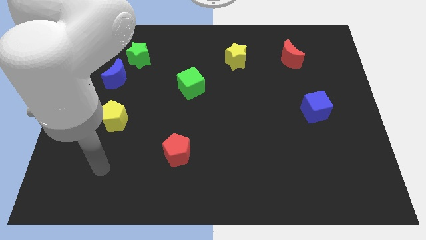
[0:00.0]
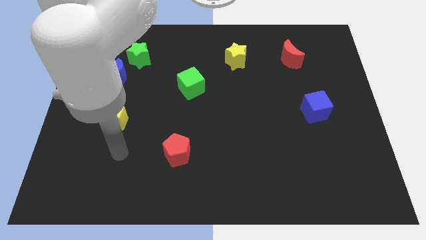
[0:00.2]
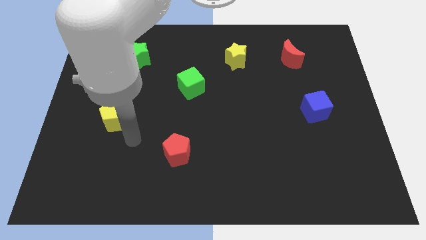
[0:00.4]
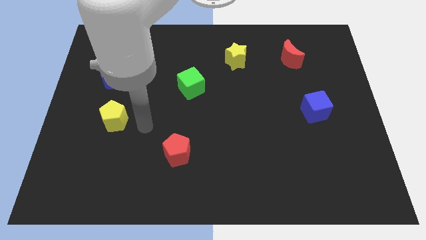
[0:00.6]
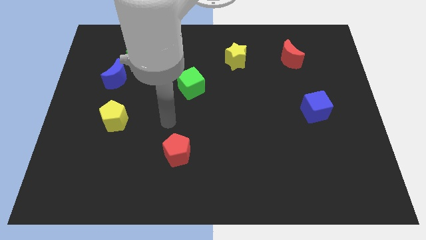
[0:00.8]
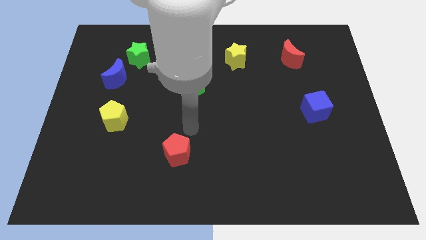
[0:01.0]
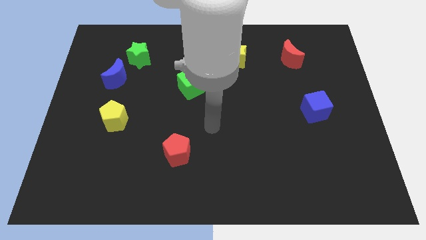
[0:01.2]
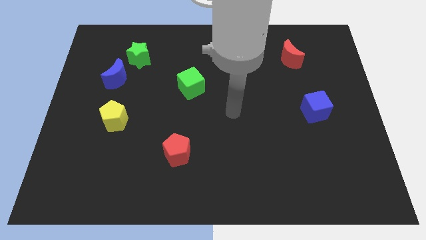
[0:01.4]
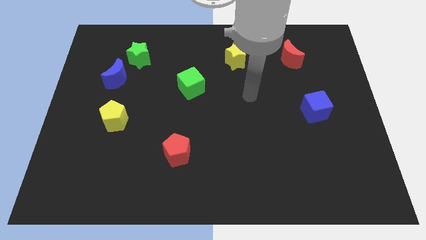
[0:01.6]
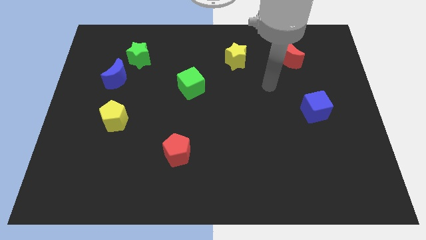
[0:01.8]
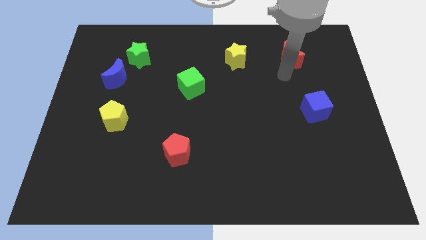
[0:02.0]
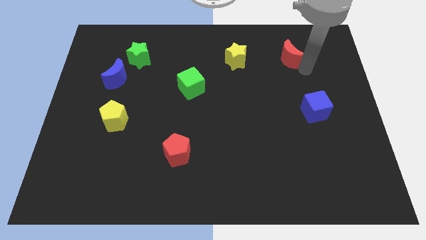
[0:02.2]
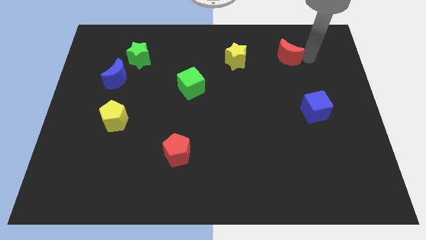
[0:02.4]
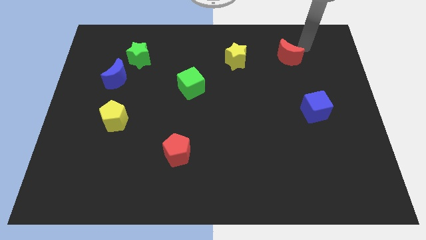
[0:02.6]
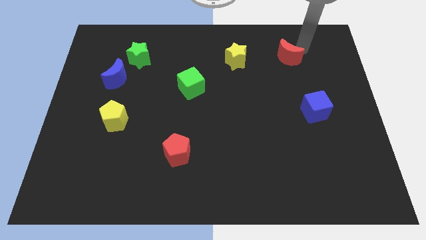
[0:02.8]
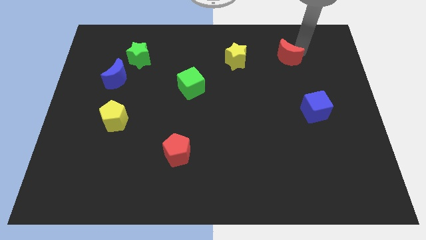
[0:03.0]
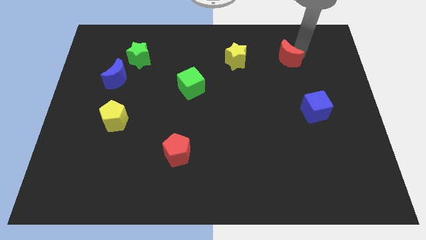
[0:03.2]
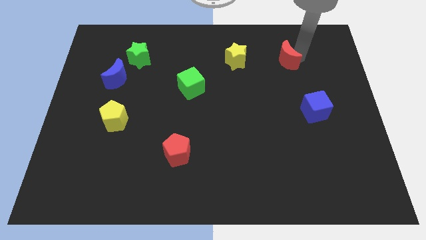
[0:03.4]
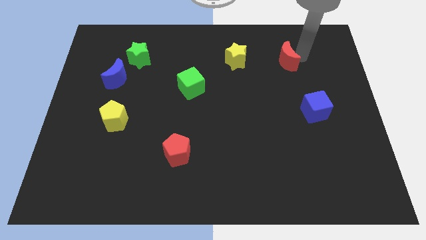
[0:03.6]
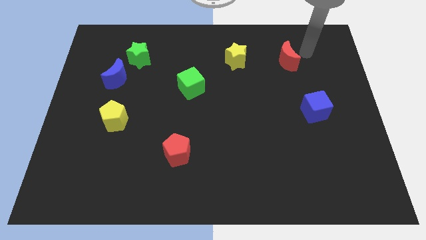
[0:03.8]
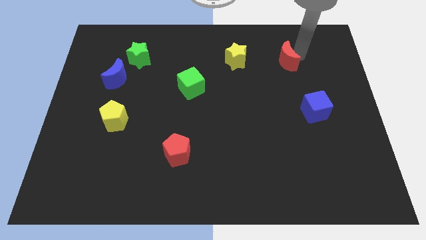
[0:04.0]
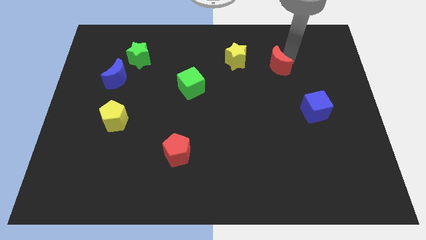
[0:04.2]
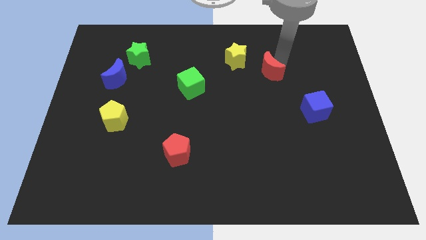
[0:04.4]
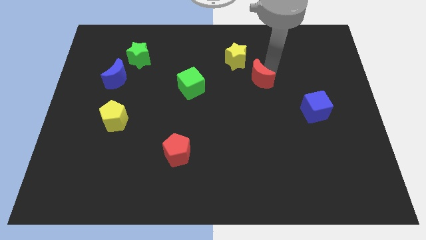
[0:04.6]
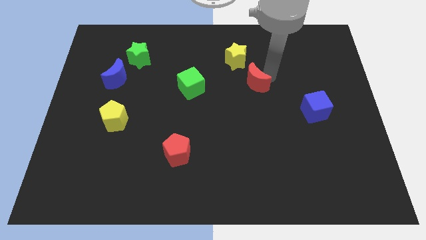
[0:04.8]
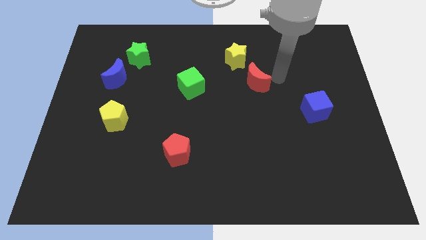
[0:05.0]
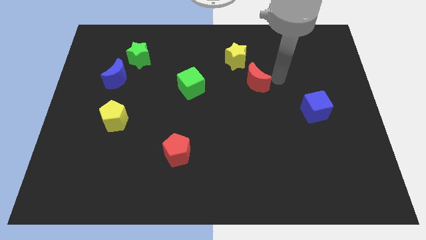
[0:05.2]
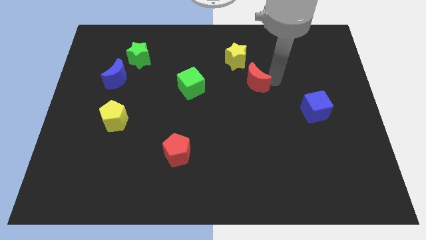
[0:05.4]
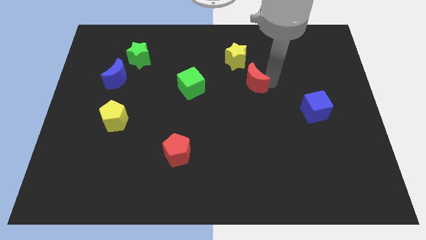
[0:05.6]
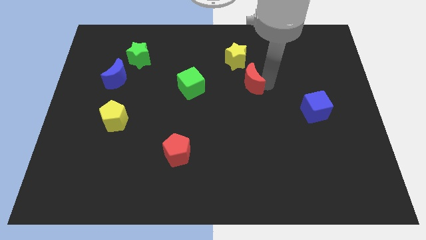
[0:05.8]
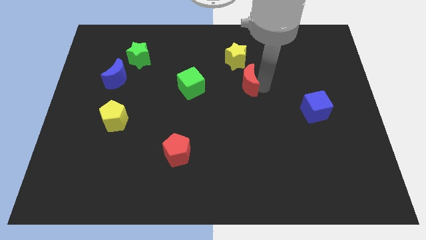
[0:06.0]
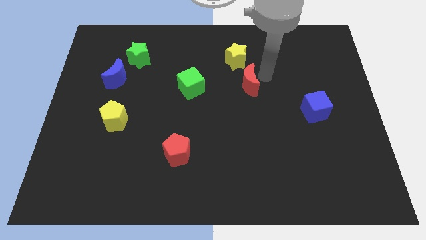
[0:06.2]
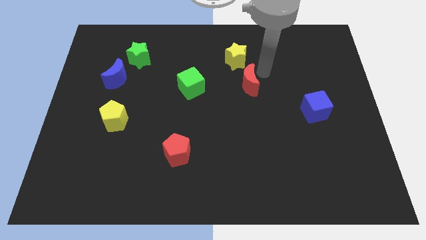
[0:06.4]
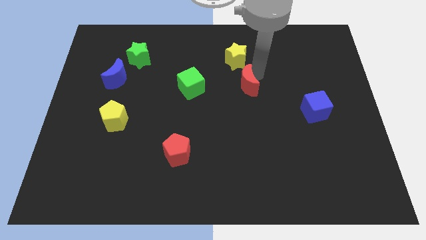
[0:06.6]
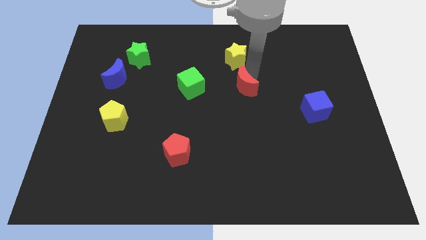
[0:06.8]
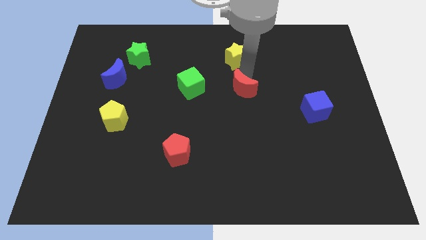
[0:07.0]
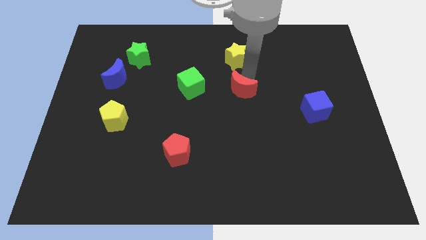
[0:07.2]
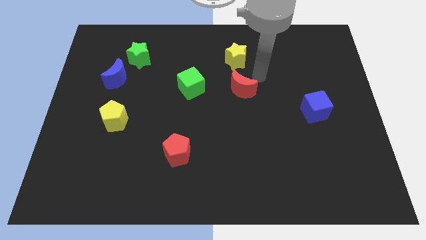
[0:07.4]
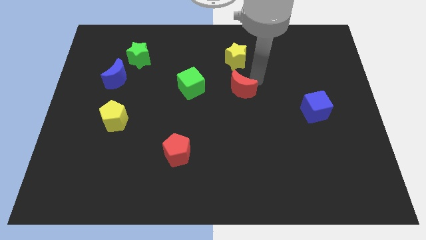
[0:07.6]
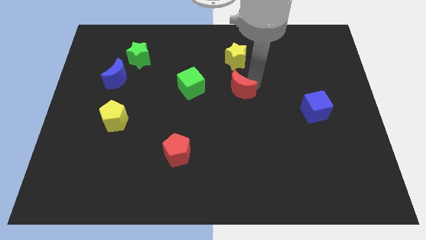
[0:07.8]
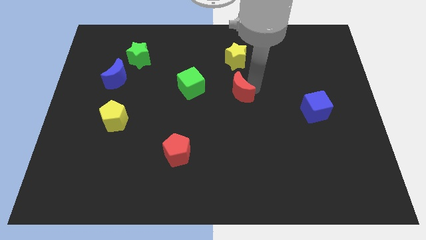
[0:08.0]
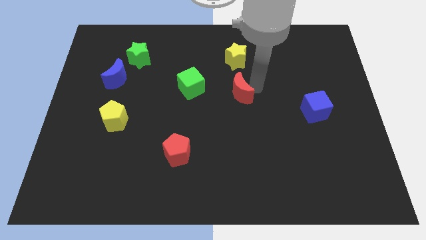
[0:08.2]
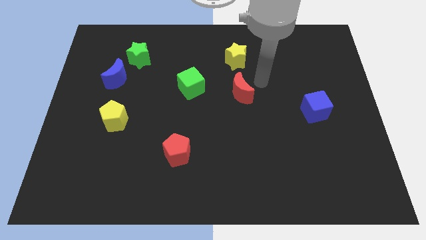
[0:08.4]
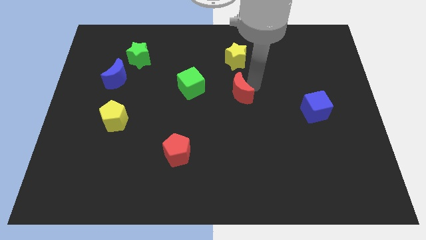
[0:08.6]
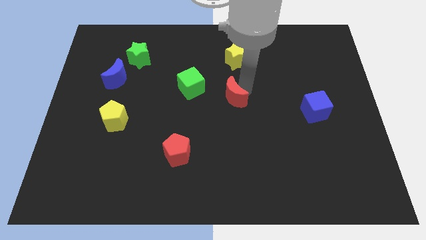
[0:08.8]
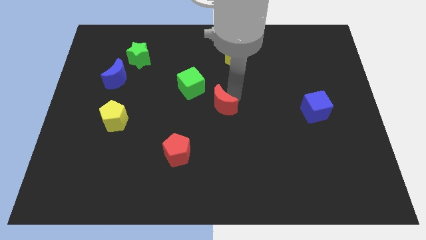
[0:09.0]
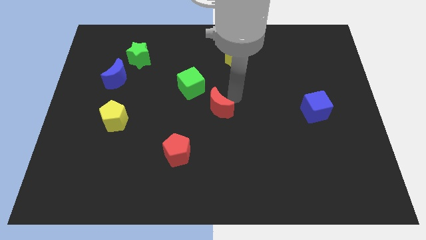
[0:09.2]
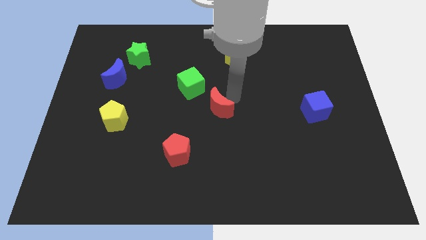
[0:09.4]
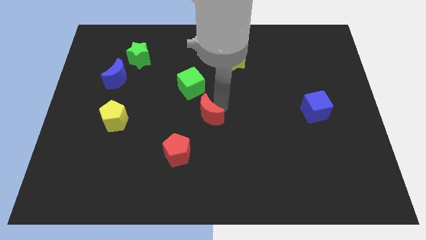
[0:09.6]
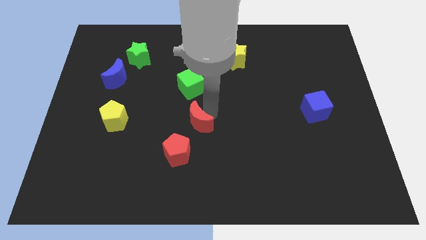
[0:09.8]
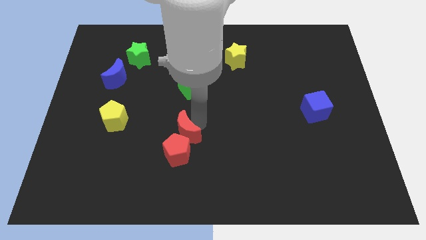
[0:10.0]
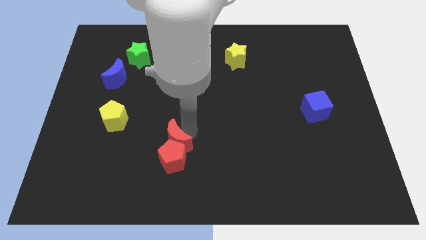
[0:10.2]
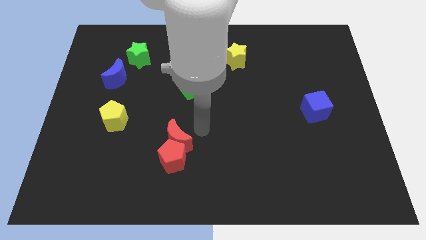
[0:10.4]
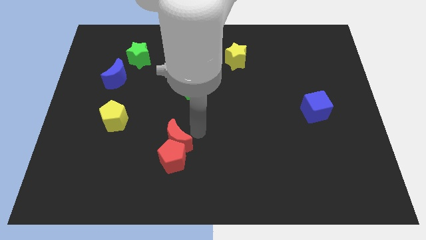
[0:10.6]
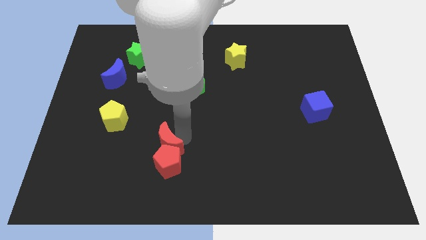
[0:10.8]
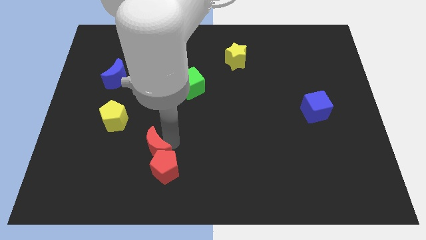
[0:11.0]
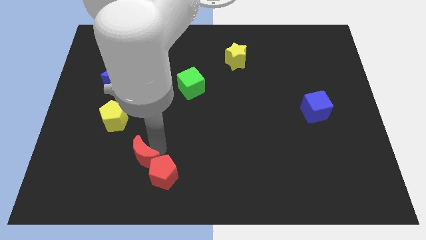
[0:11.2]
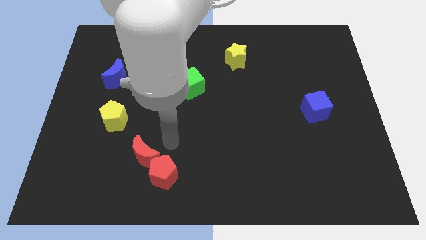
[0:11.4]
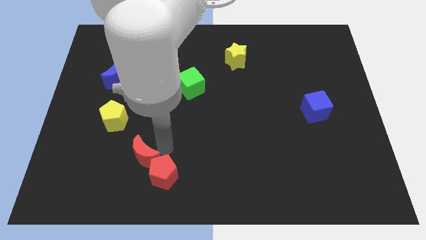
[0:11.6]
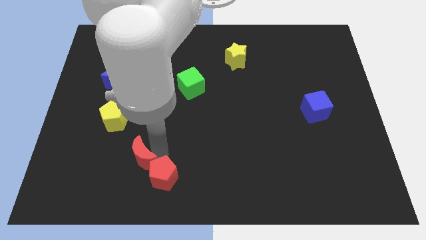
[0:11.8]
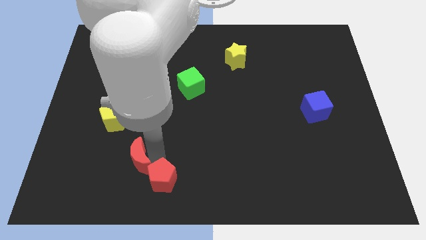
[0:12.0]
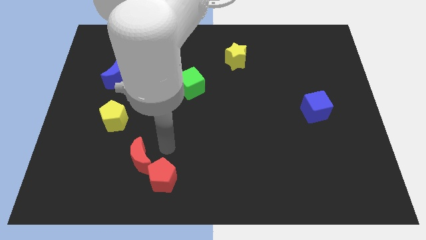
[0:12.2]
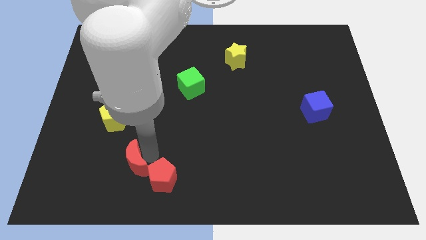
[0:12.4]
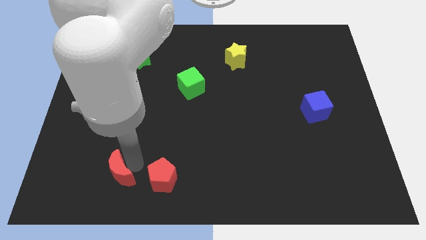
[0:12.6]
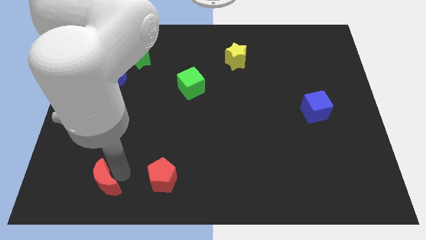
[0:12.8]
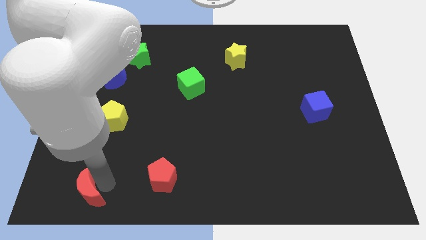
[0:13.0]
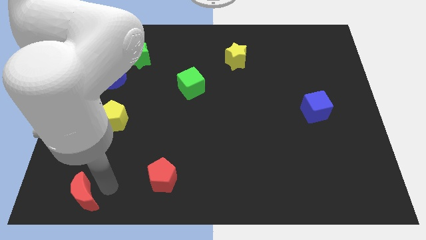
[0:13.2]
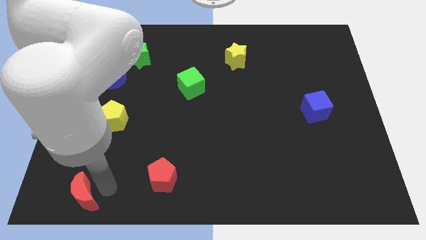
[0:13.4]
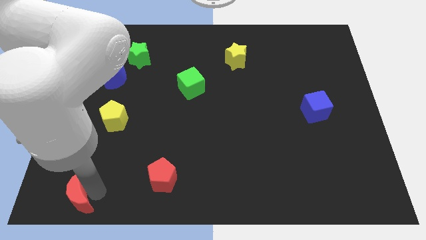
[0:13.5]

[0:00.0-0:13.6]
slide the red moon to the bottom left corner
